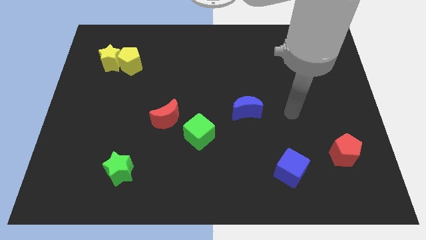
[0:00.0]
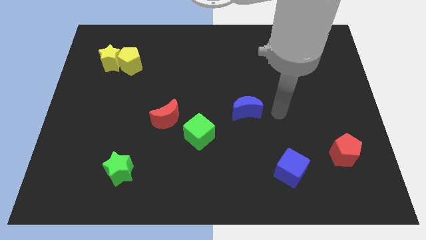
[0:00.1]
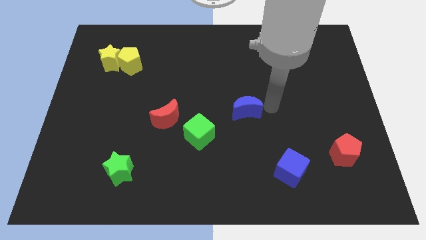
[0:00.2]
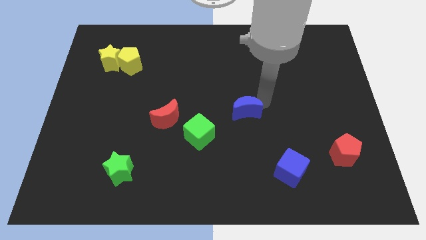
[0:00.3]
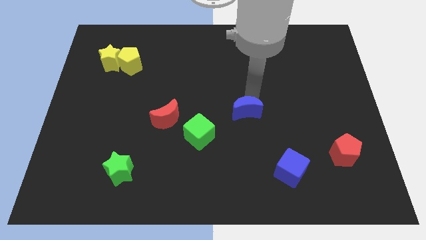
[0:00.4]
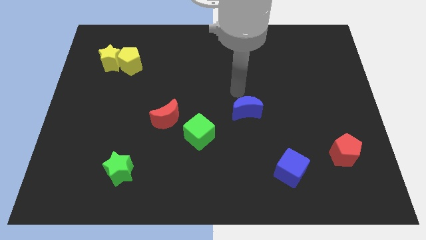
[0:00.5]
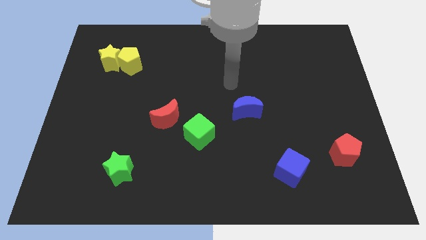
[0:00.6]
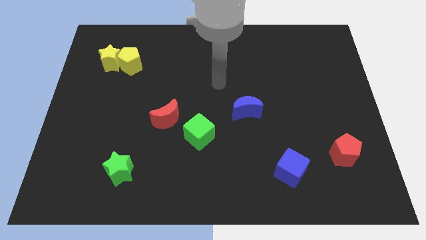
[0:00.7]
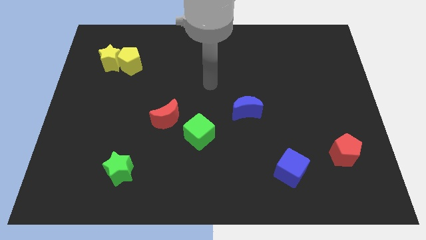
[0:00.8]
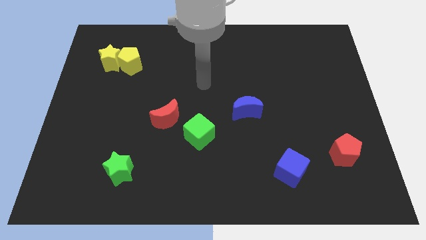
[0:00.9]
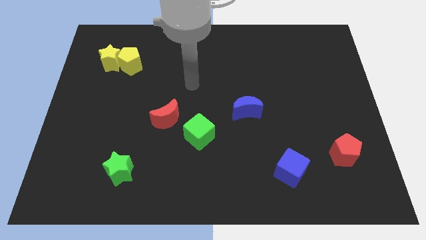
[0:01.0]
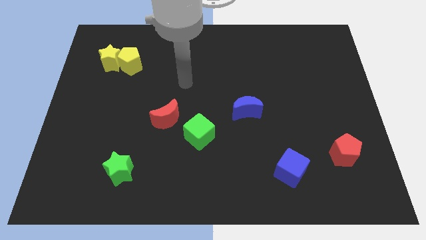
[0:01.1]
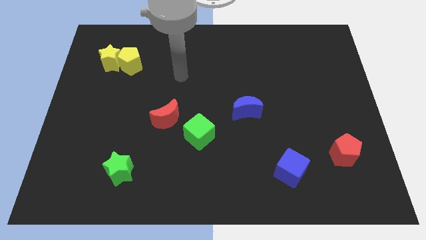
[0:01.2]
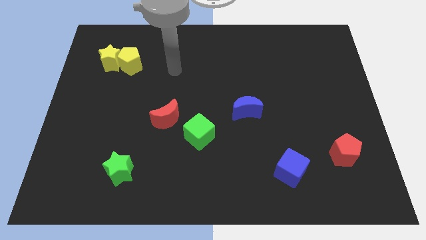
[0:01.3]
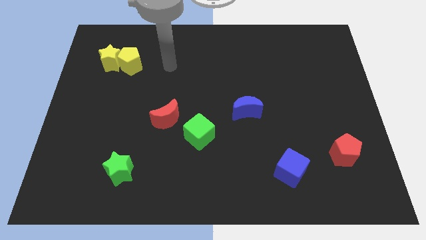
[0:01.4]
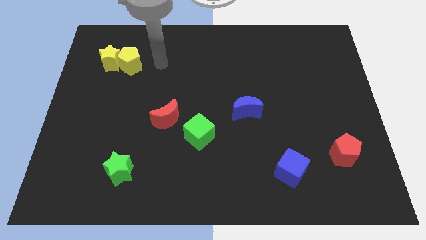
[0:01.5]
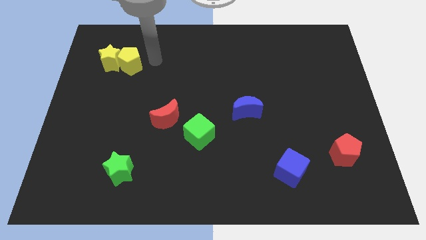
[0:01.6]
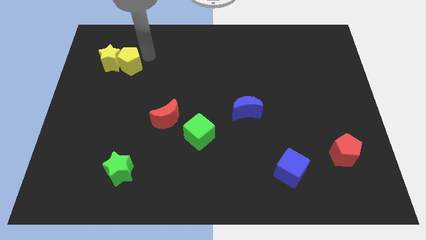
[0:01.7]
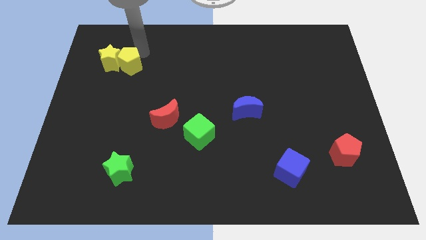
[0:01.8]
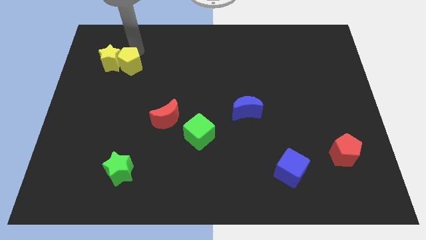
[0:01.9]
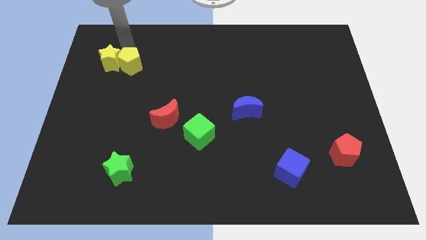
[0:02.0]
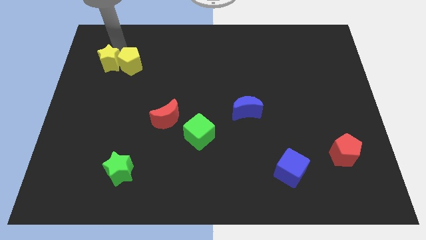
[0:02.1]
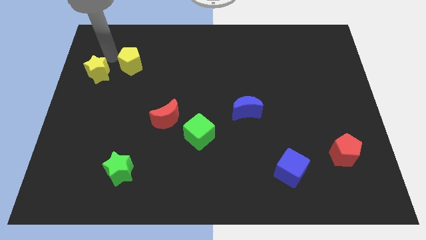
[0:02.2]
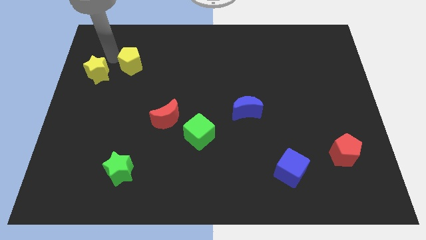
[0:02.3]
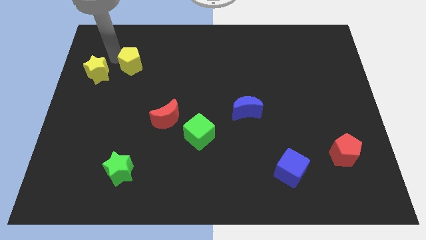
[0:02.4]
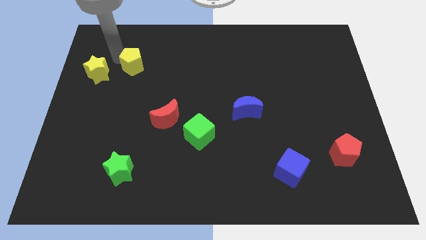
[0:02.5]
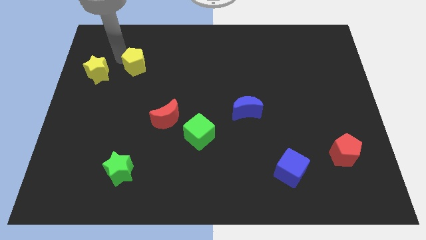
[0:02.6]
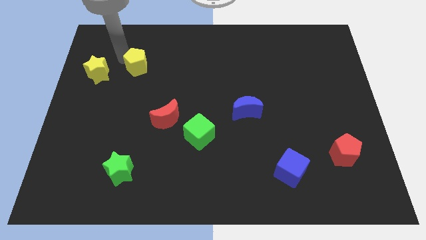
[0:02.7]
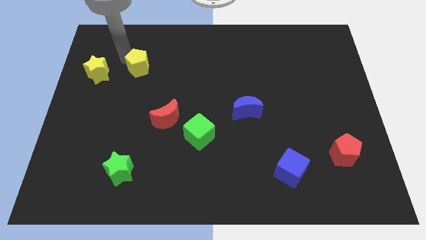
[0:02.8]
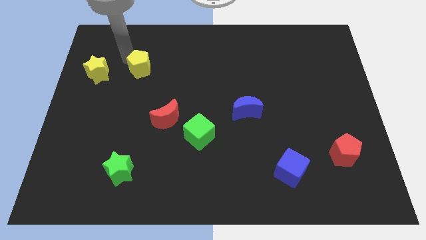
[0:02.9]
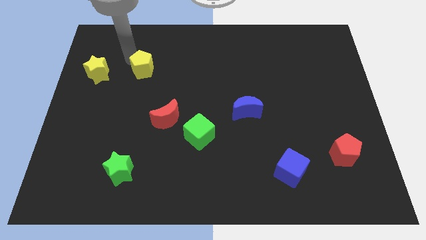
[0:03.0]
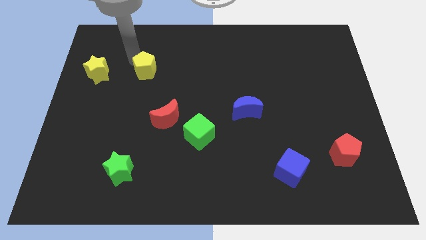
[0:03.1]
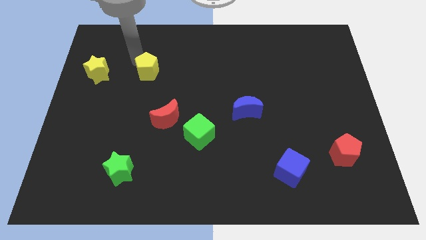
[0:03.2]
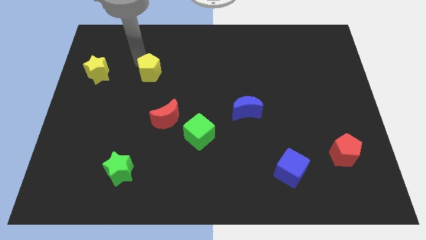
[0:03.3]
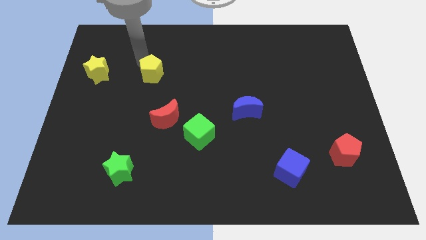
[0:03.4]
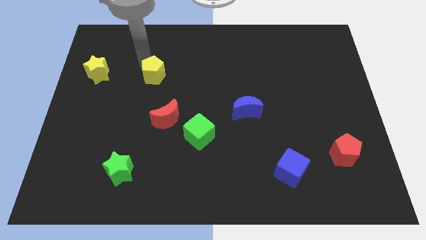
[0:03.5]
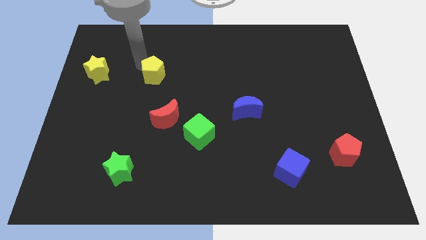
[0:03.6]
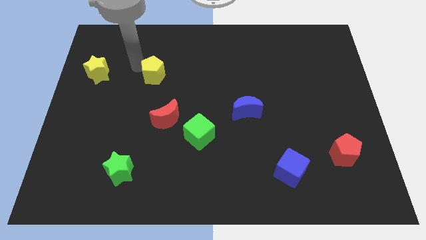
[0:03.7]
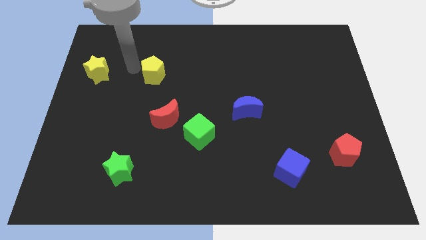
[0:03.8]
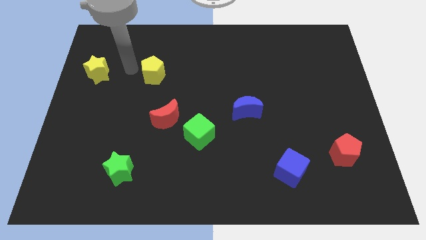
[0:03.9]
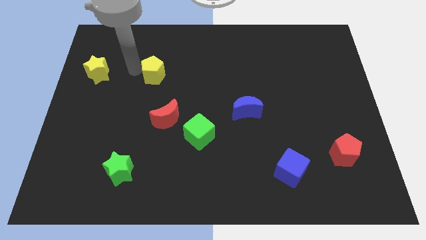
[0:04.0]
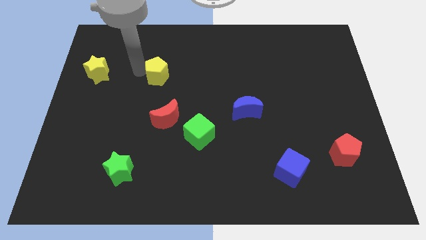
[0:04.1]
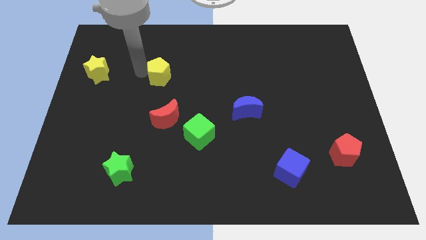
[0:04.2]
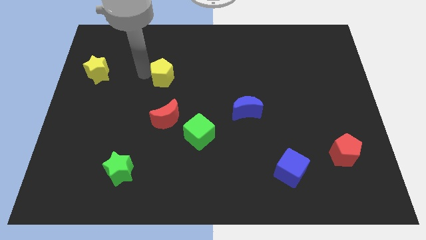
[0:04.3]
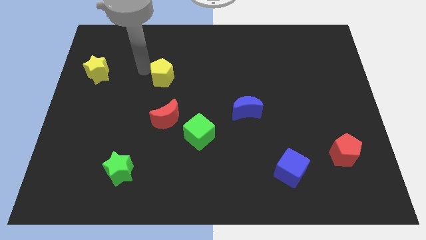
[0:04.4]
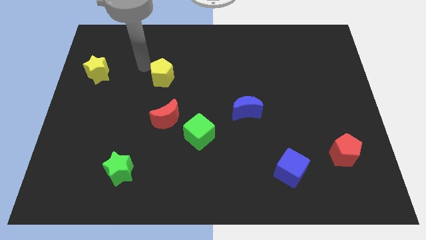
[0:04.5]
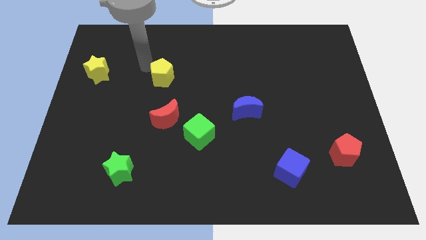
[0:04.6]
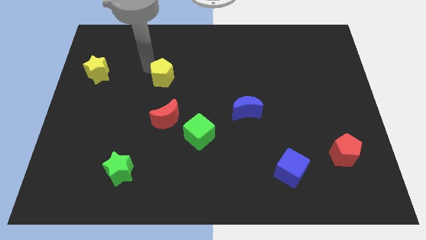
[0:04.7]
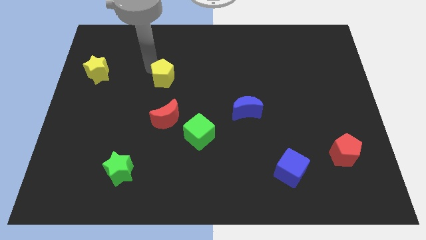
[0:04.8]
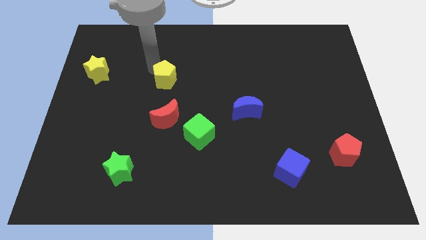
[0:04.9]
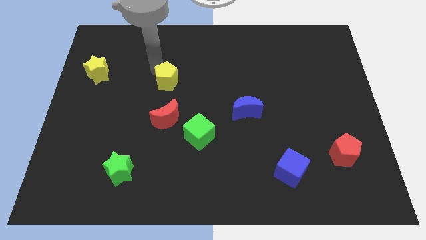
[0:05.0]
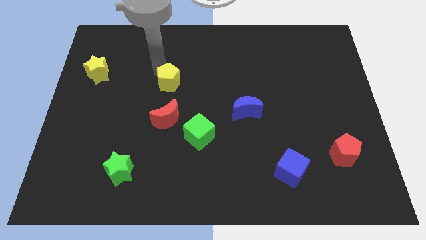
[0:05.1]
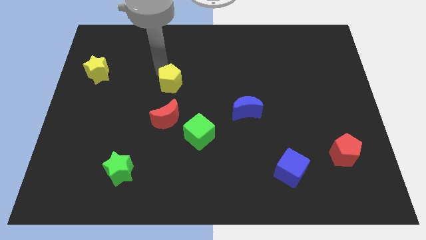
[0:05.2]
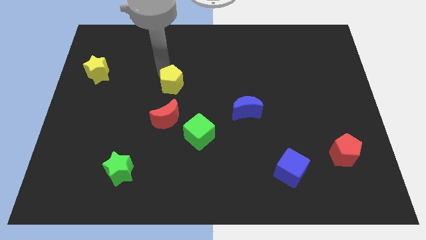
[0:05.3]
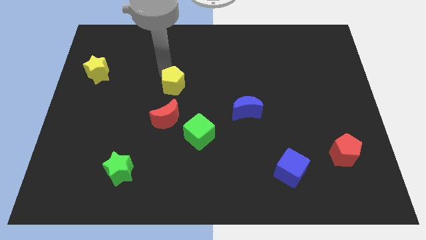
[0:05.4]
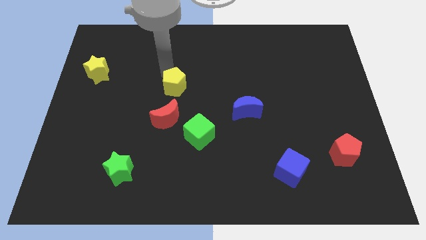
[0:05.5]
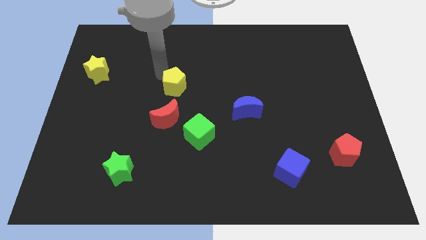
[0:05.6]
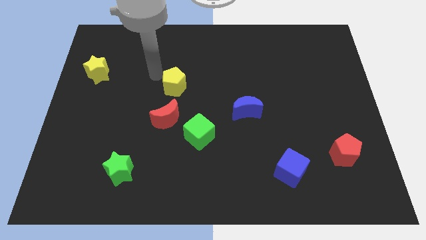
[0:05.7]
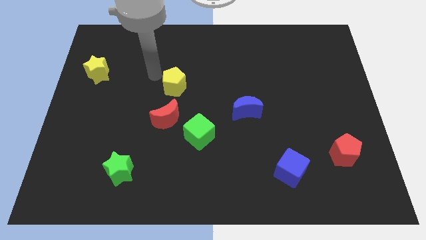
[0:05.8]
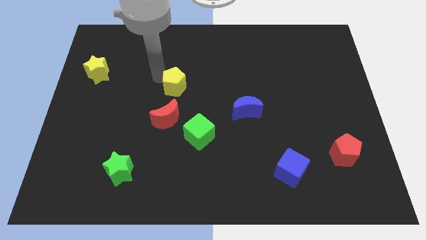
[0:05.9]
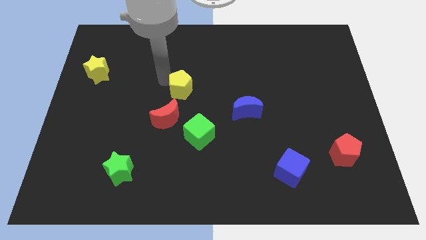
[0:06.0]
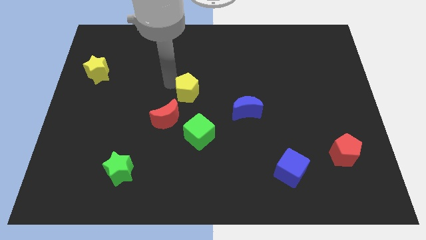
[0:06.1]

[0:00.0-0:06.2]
put the yellow pentagon to the top side of the green cube

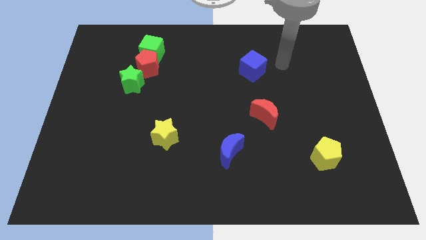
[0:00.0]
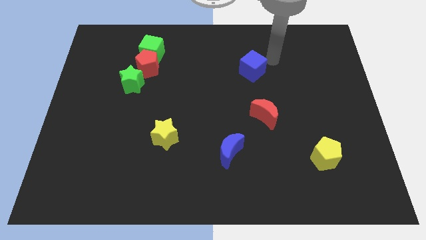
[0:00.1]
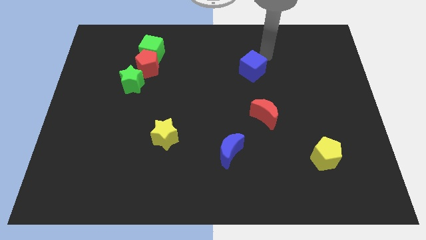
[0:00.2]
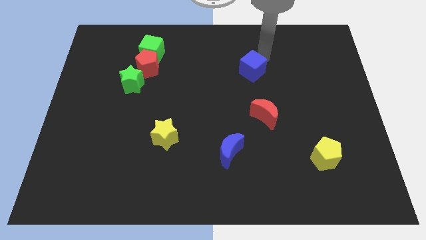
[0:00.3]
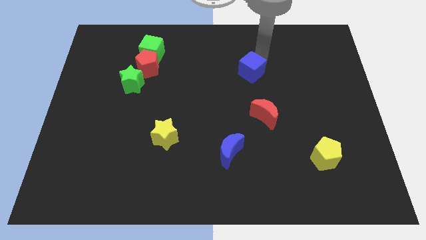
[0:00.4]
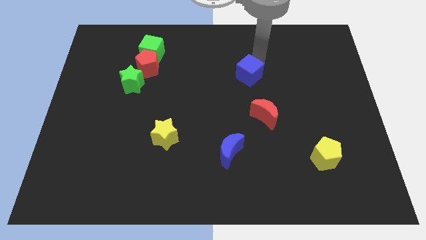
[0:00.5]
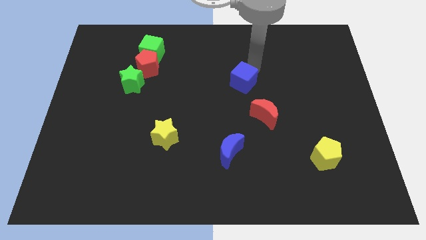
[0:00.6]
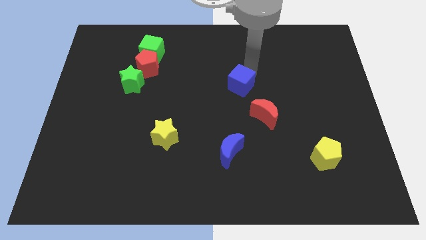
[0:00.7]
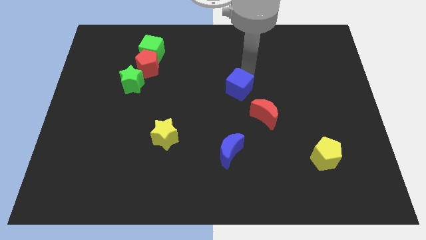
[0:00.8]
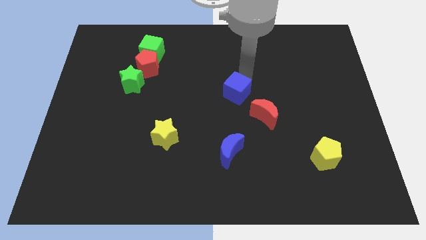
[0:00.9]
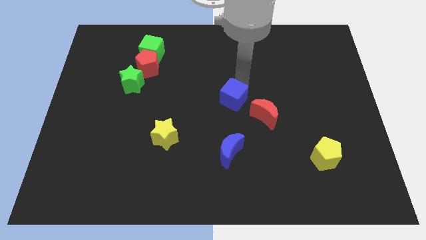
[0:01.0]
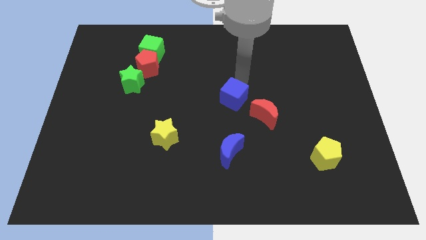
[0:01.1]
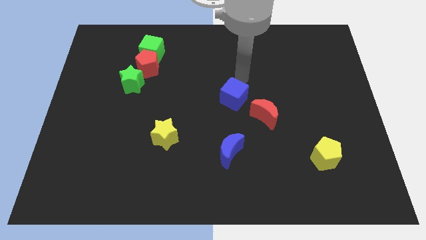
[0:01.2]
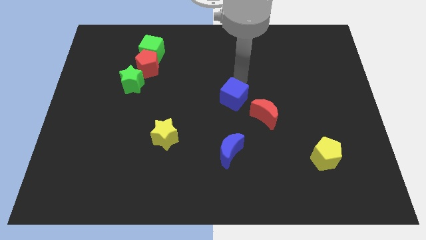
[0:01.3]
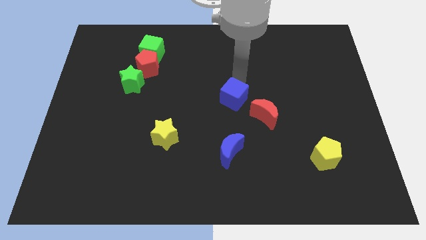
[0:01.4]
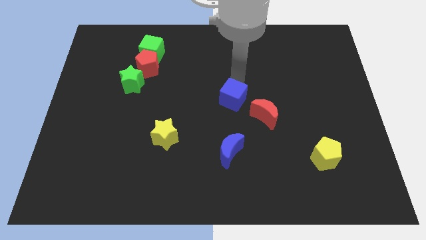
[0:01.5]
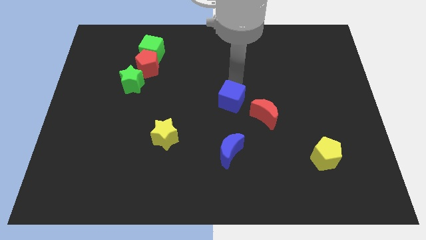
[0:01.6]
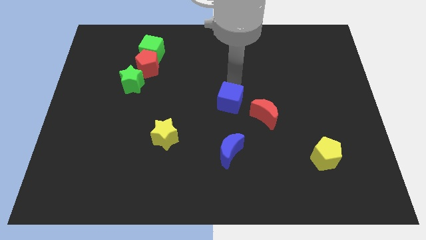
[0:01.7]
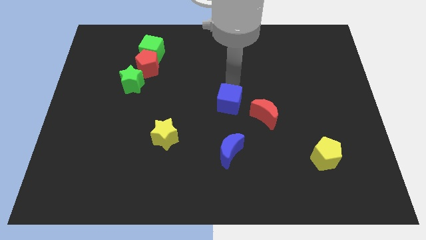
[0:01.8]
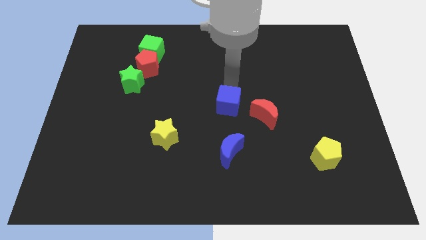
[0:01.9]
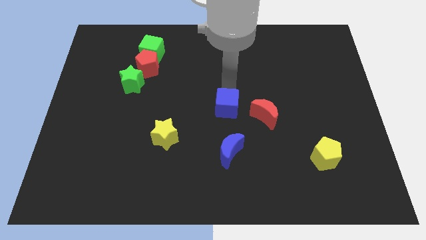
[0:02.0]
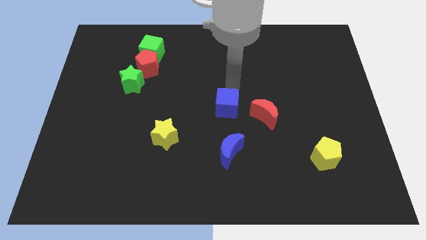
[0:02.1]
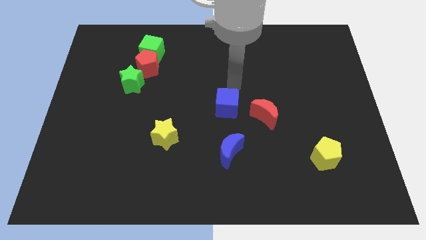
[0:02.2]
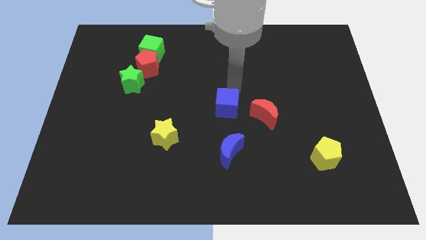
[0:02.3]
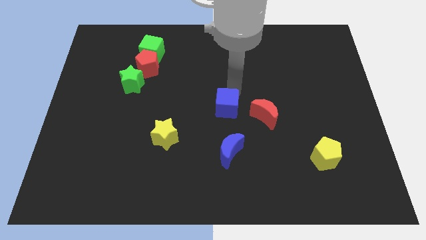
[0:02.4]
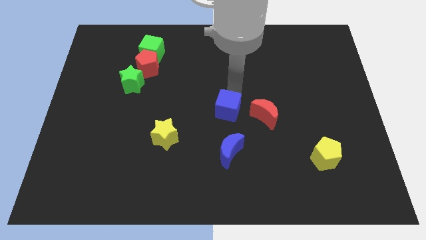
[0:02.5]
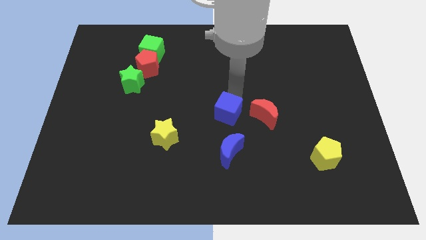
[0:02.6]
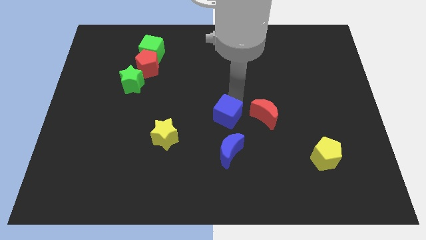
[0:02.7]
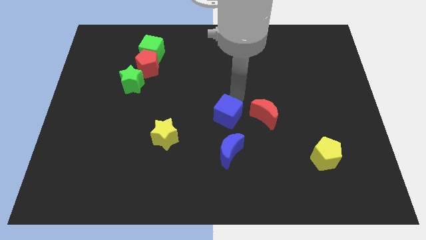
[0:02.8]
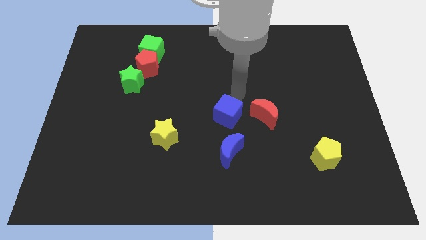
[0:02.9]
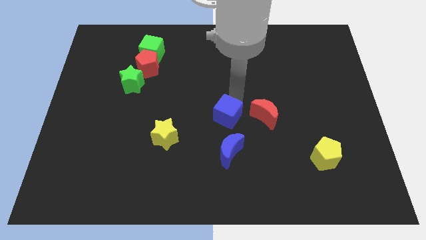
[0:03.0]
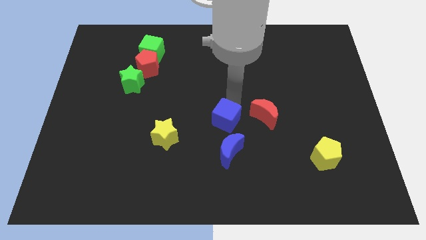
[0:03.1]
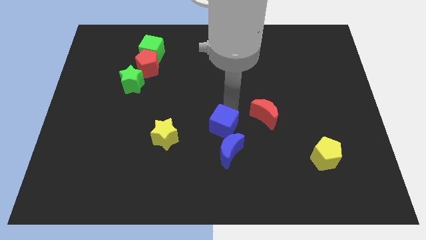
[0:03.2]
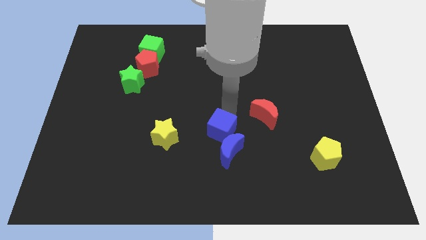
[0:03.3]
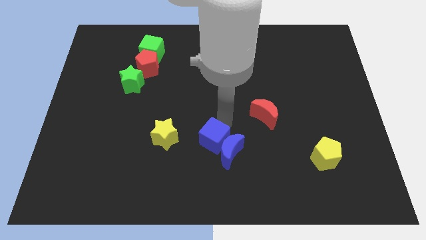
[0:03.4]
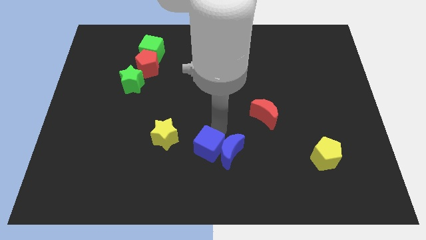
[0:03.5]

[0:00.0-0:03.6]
put the blue cube to the bottom left side of the blue moon
